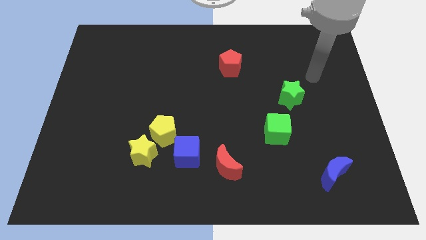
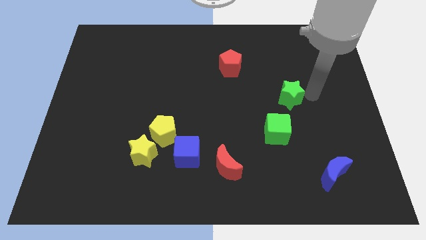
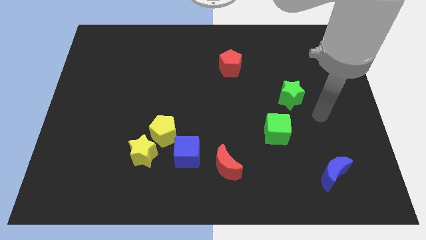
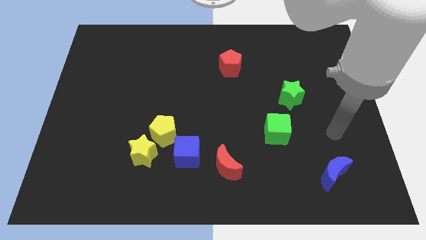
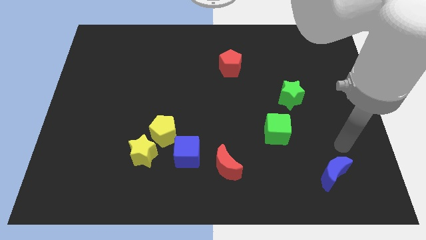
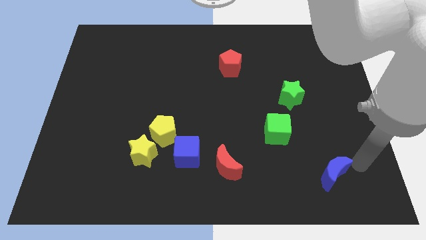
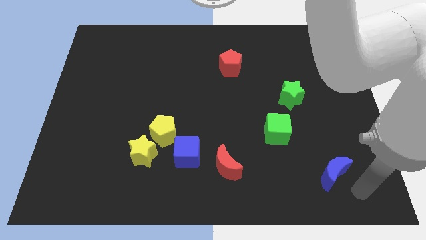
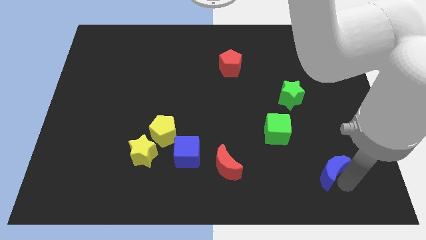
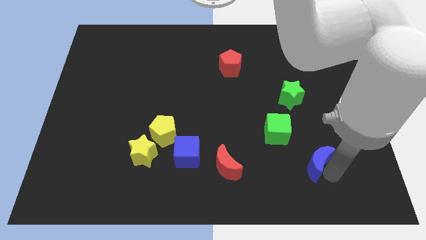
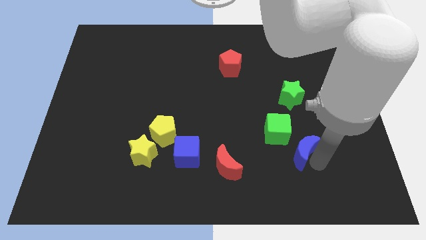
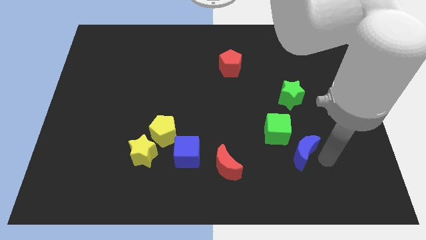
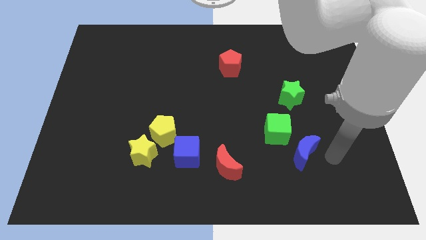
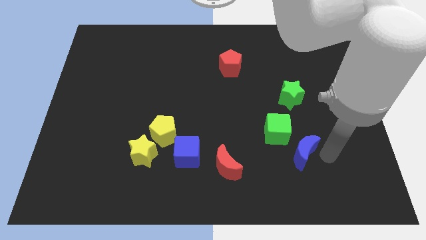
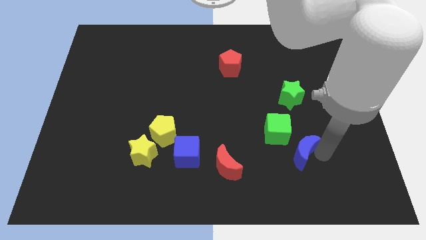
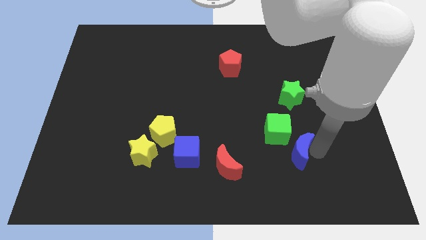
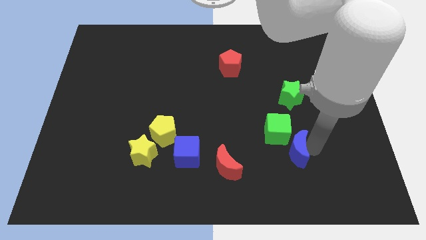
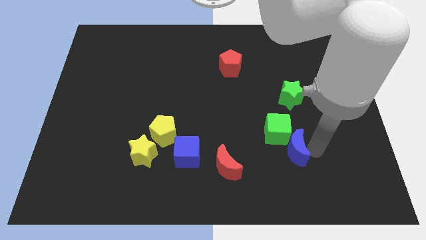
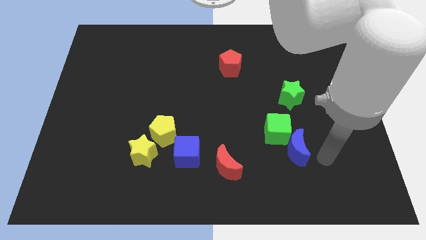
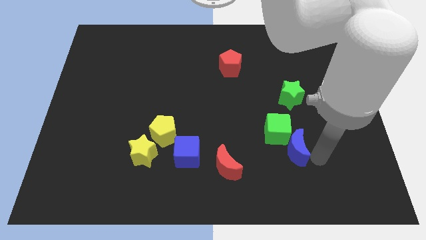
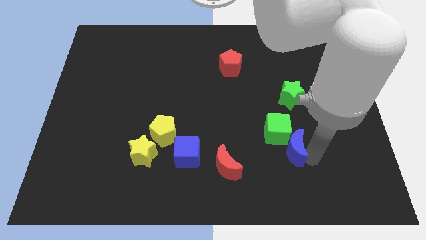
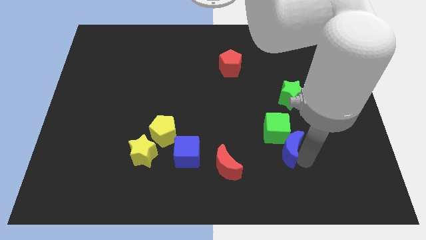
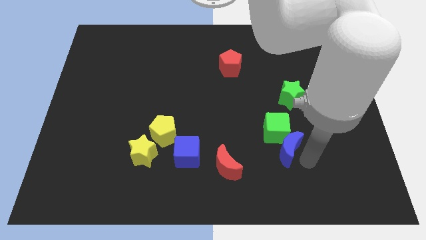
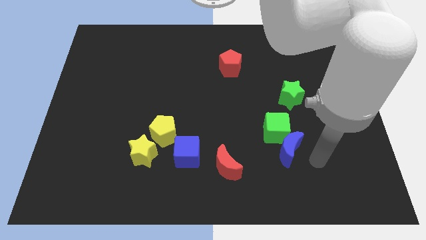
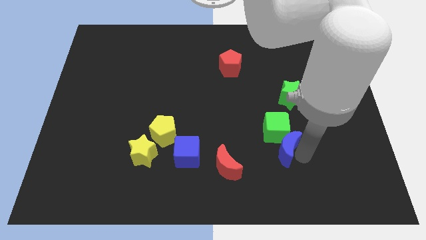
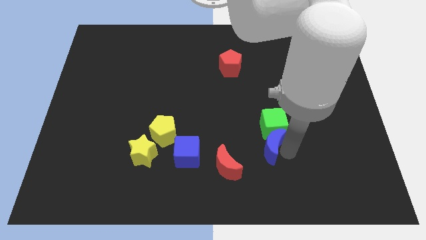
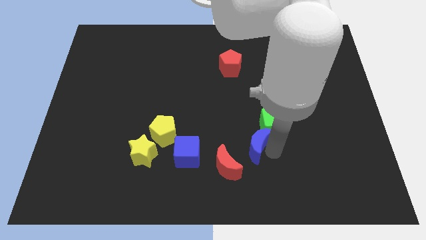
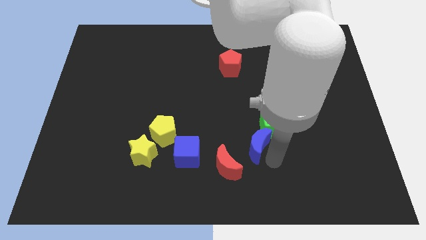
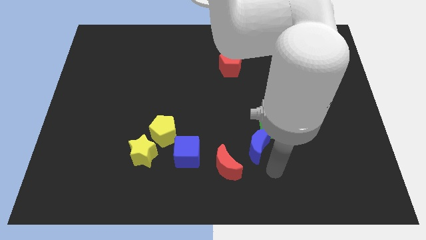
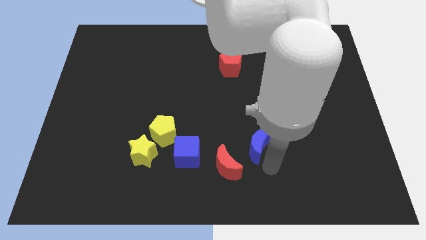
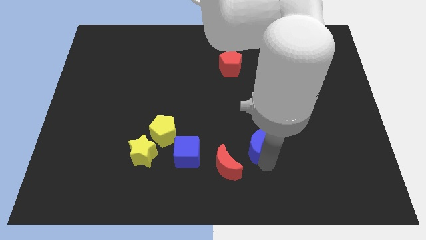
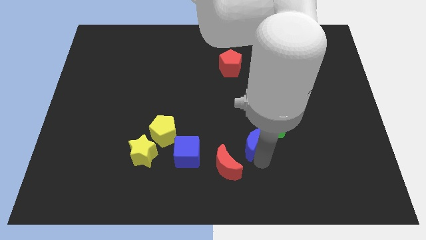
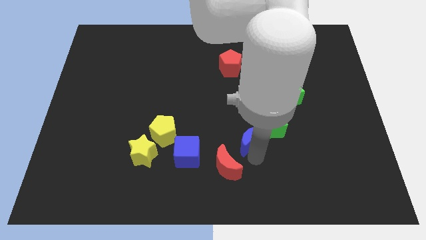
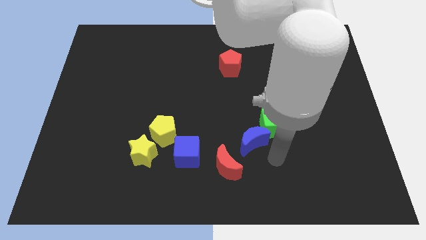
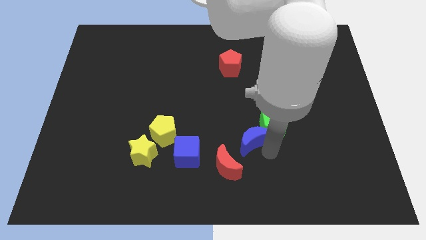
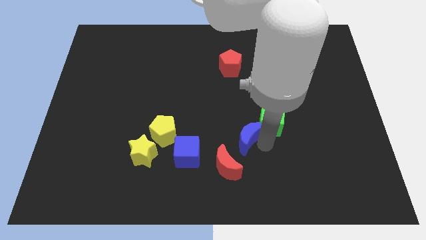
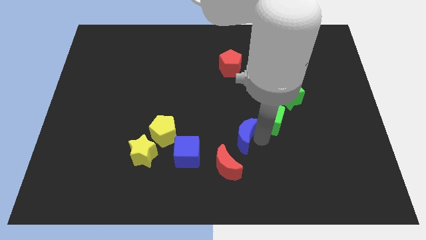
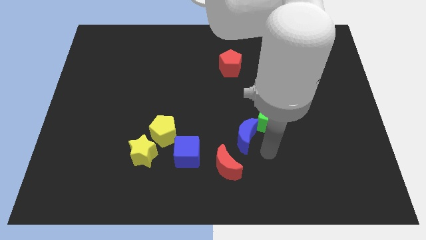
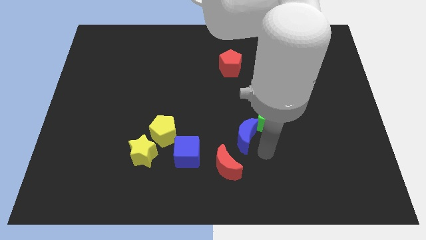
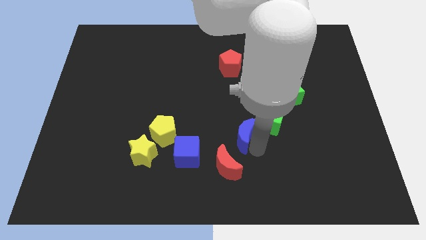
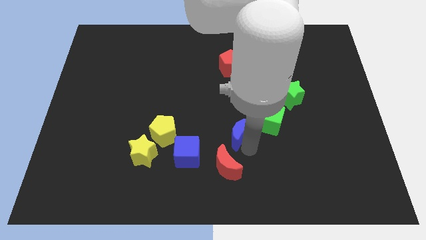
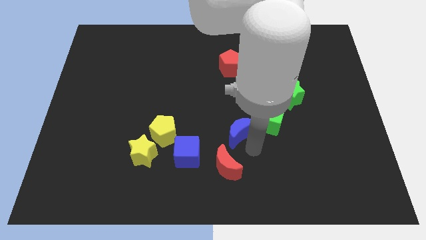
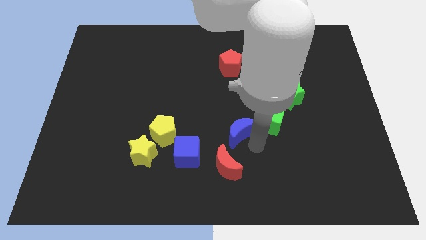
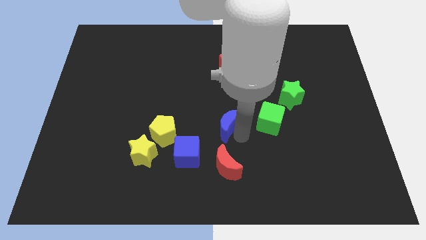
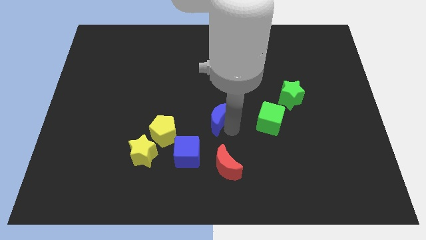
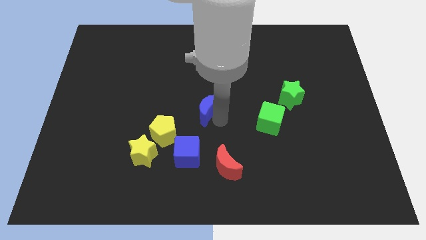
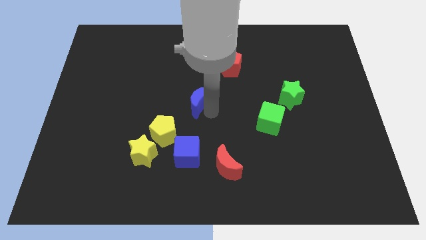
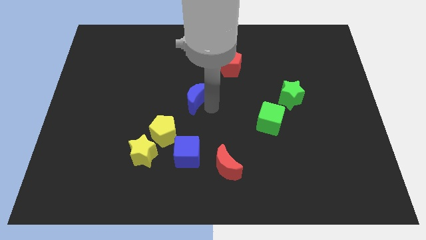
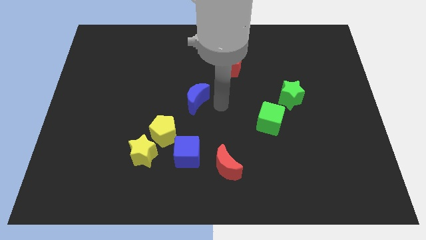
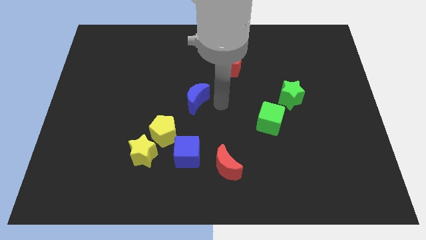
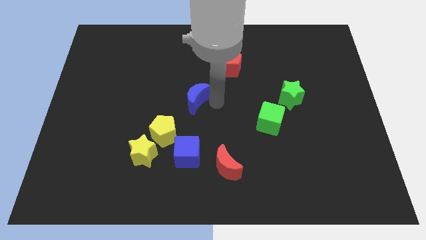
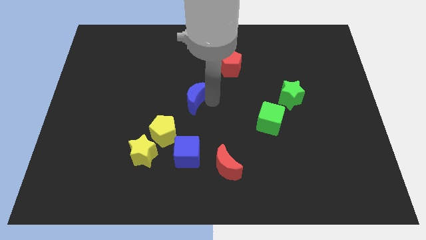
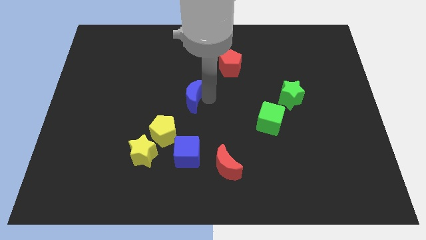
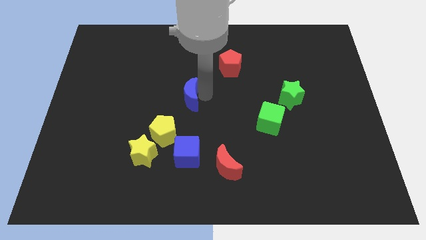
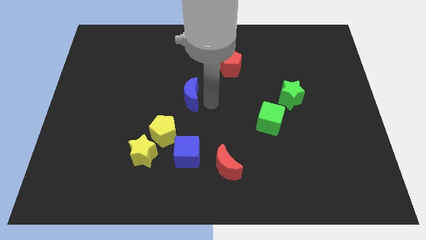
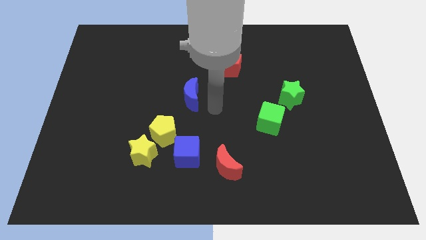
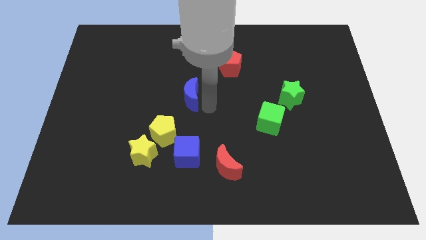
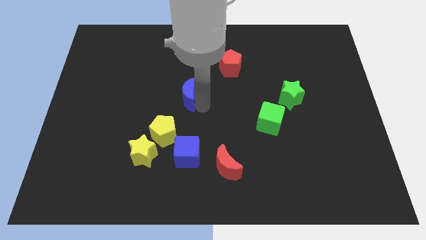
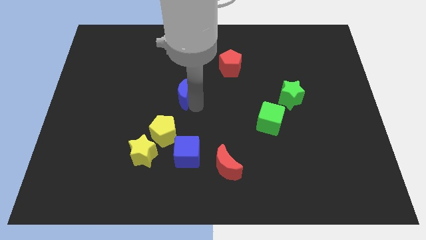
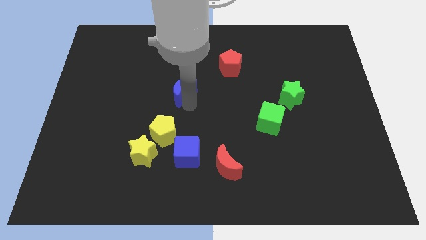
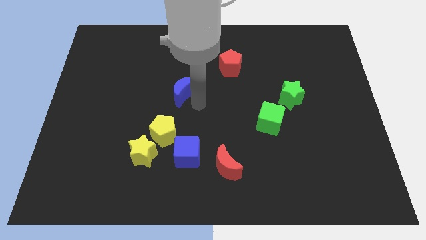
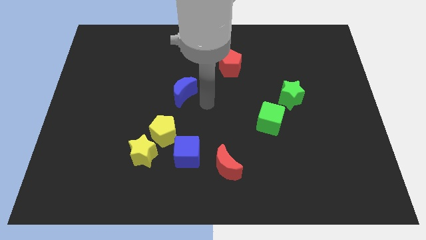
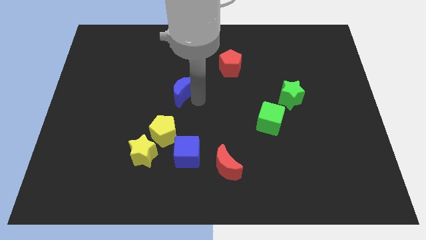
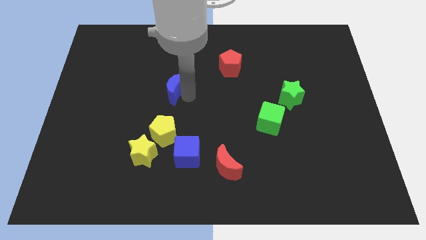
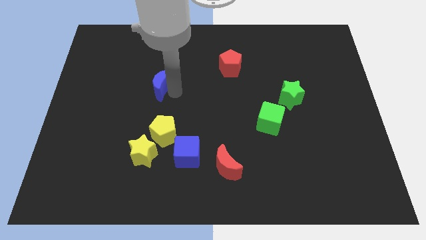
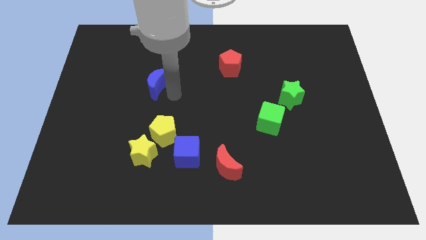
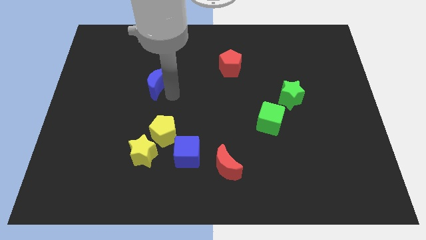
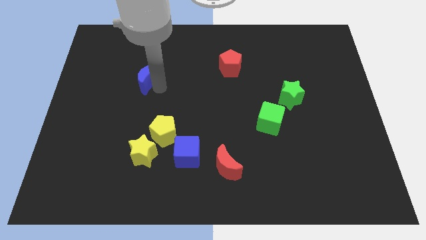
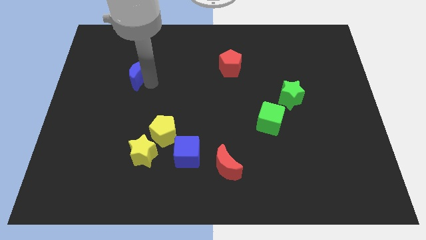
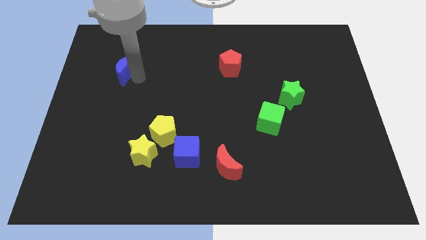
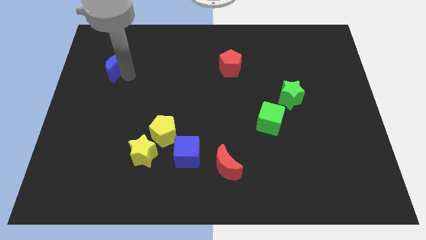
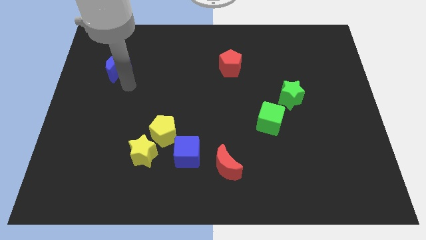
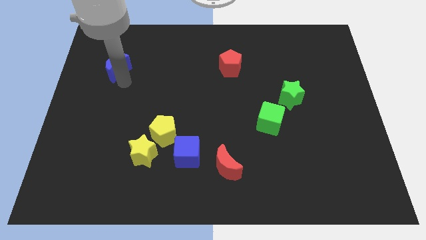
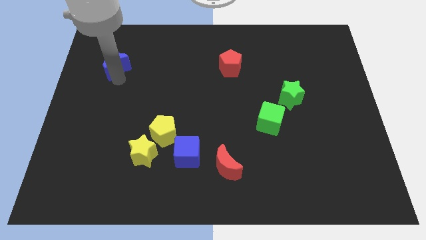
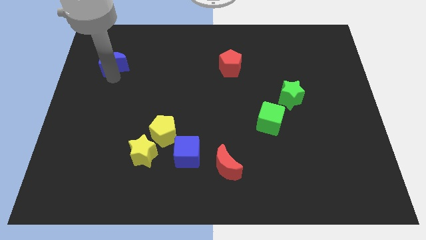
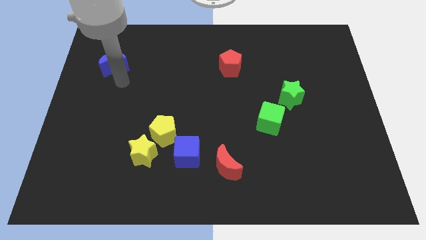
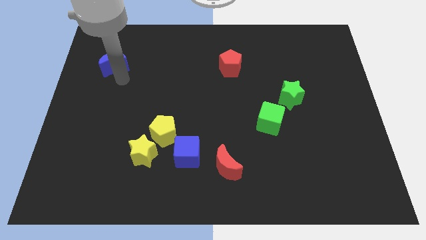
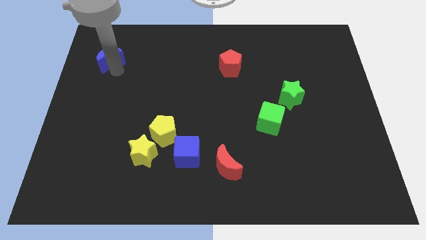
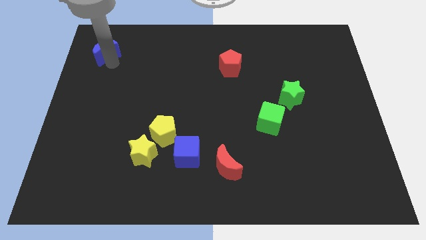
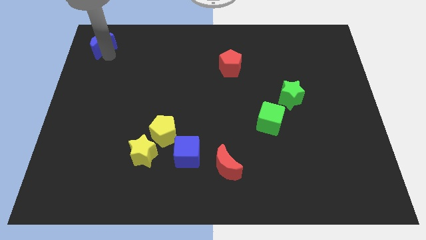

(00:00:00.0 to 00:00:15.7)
put the blue moon to the top left of the board
